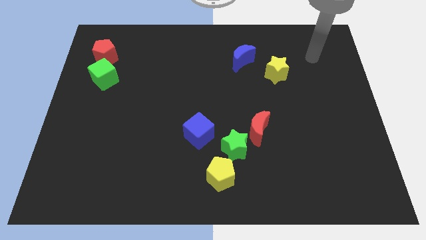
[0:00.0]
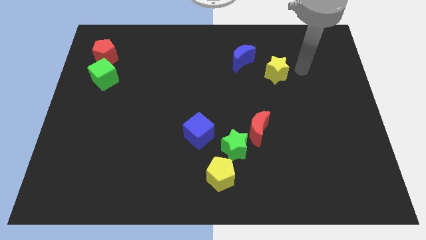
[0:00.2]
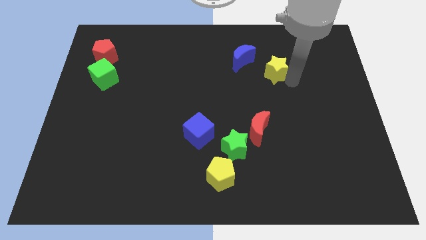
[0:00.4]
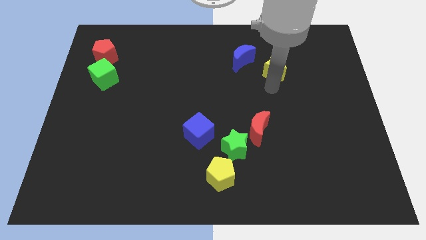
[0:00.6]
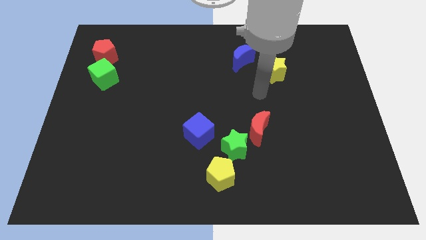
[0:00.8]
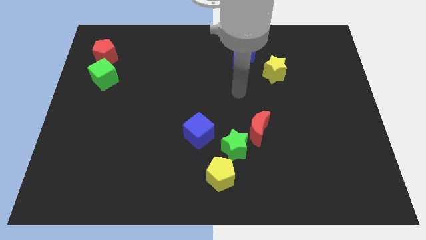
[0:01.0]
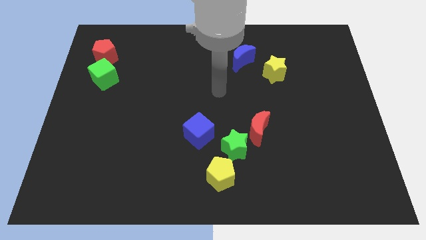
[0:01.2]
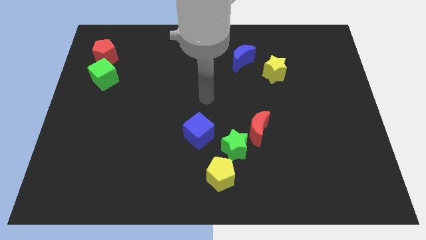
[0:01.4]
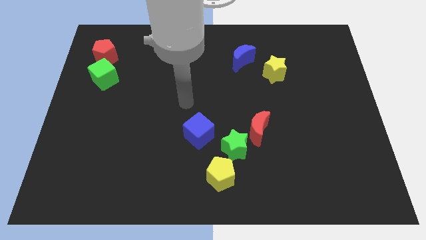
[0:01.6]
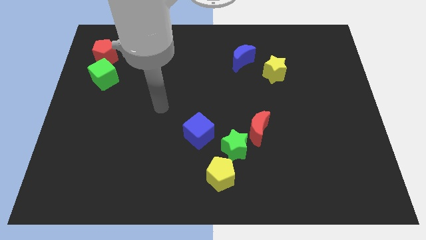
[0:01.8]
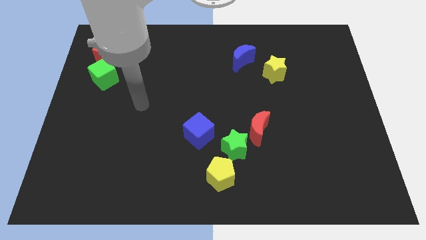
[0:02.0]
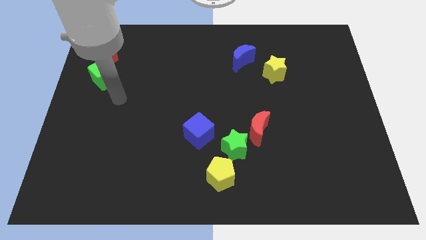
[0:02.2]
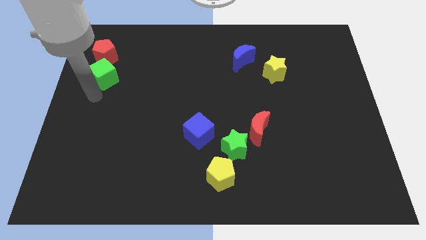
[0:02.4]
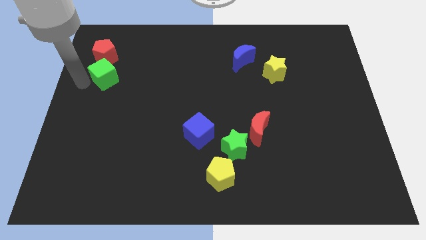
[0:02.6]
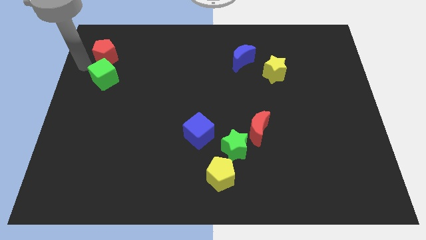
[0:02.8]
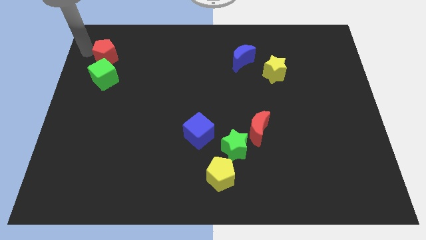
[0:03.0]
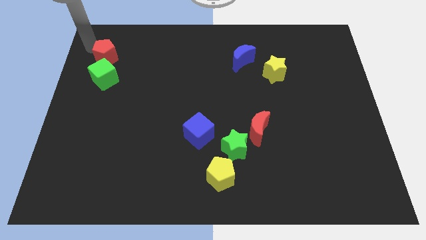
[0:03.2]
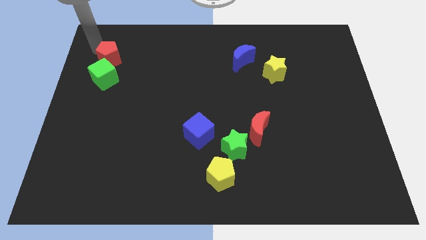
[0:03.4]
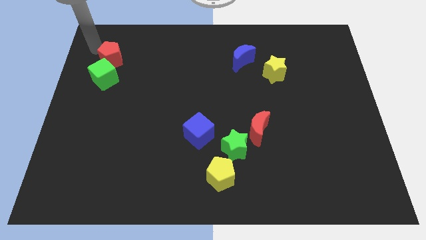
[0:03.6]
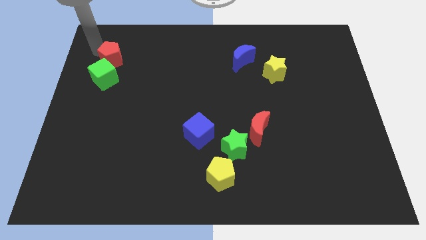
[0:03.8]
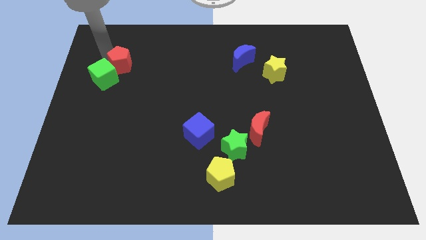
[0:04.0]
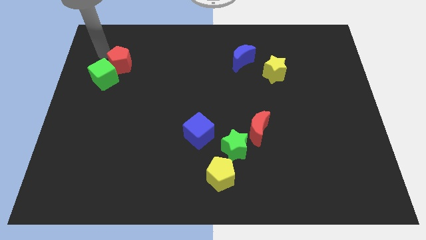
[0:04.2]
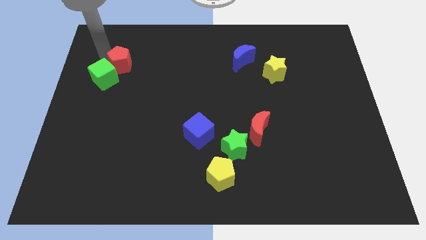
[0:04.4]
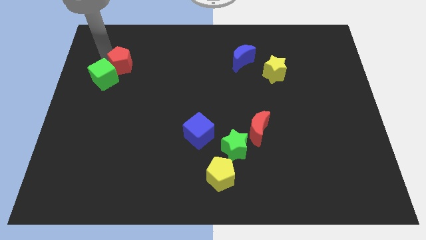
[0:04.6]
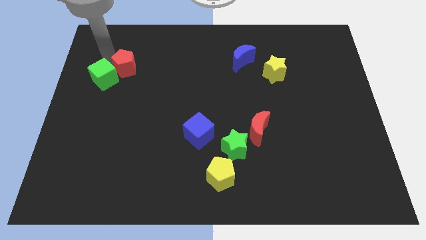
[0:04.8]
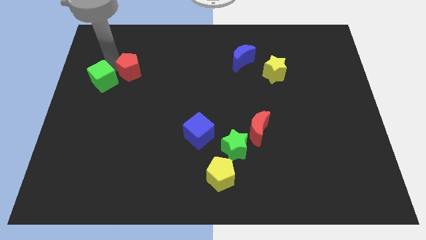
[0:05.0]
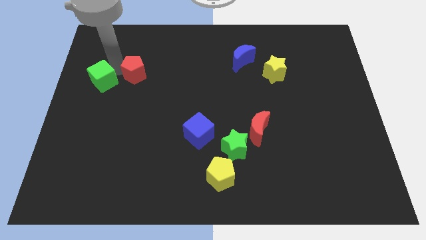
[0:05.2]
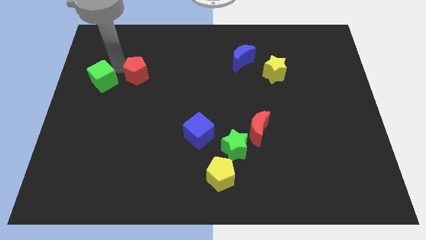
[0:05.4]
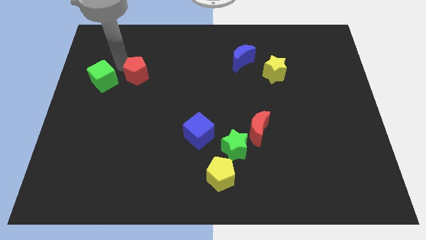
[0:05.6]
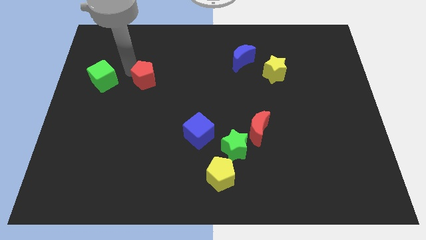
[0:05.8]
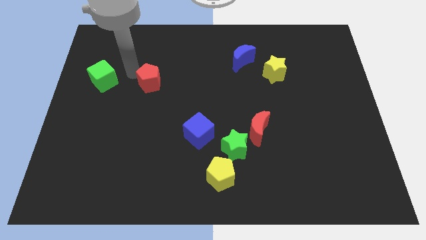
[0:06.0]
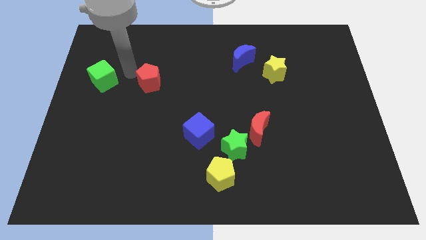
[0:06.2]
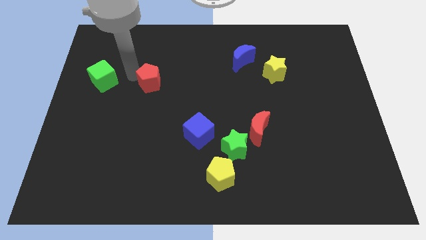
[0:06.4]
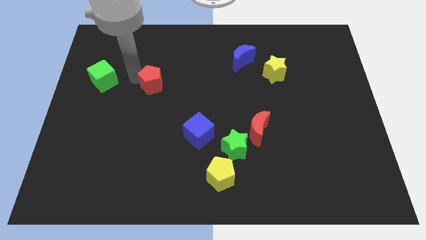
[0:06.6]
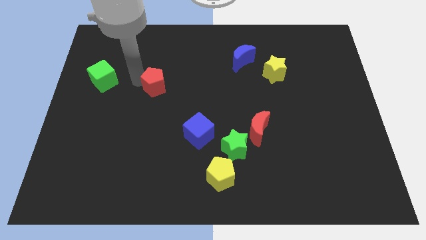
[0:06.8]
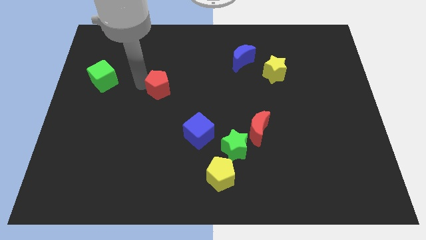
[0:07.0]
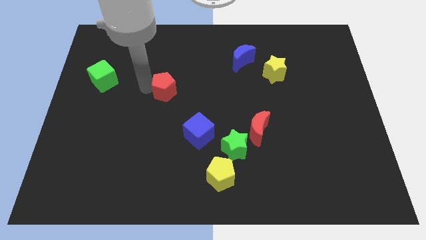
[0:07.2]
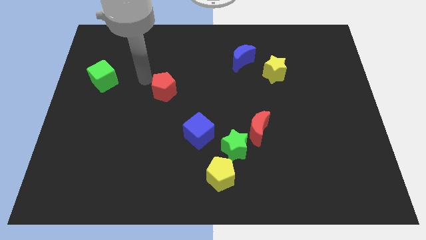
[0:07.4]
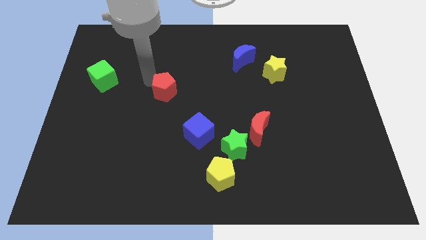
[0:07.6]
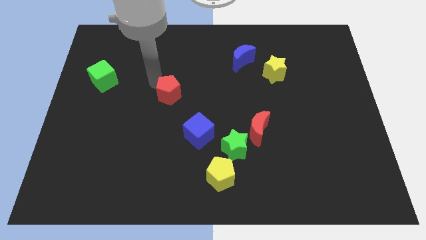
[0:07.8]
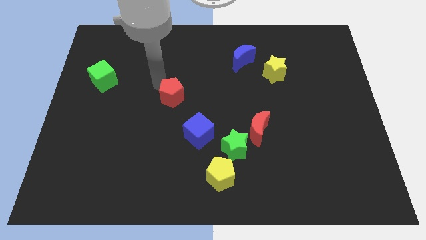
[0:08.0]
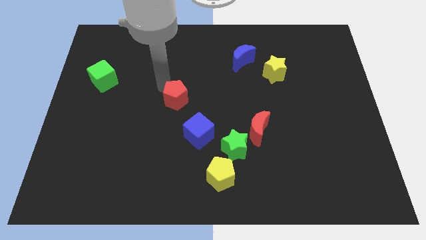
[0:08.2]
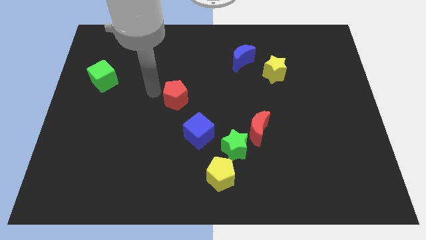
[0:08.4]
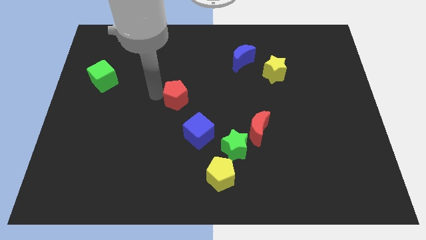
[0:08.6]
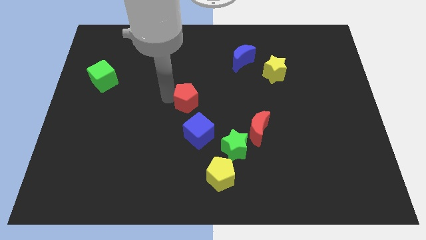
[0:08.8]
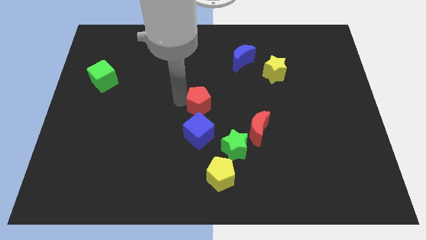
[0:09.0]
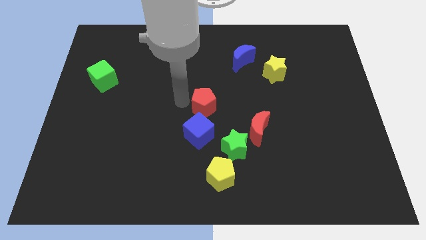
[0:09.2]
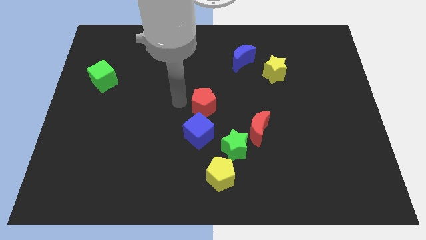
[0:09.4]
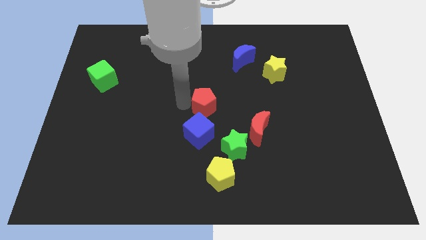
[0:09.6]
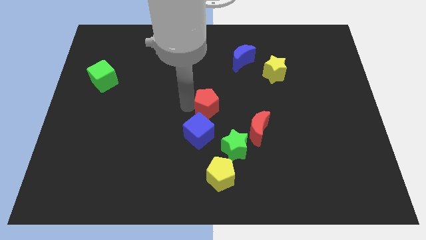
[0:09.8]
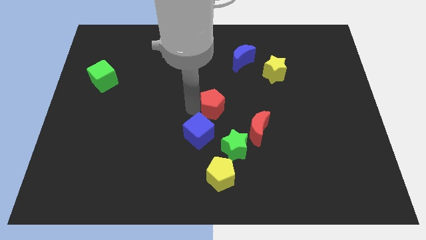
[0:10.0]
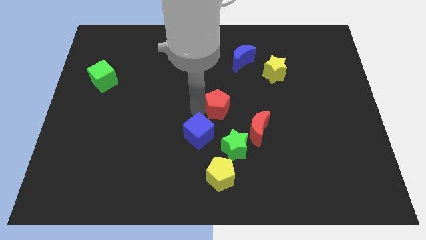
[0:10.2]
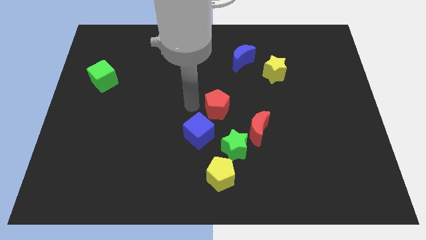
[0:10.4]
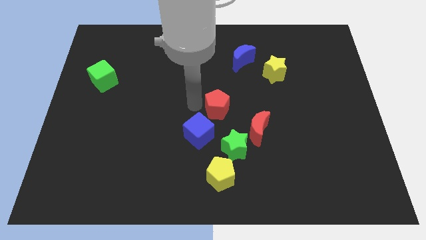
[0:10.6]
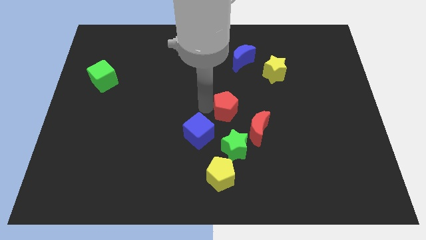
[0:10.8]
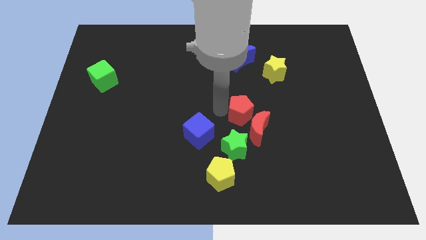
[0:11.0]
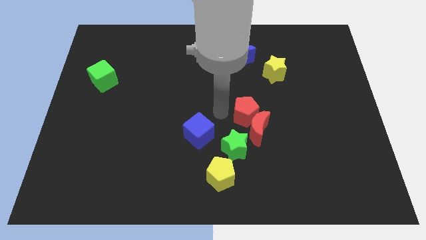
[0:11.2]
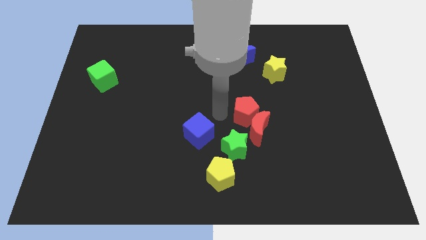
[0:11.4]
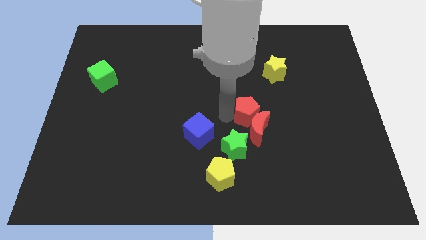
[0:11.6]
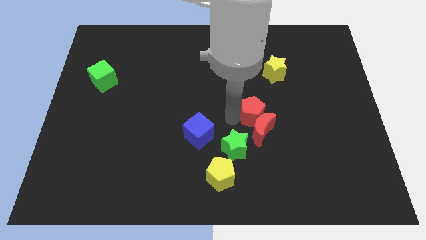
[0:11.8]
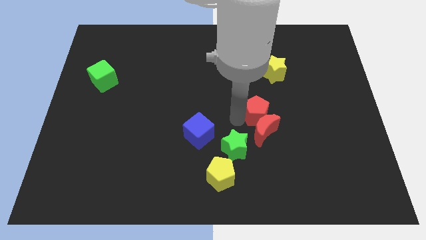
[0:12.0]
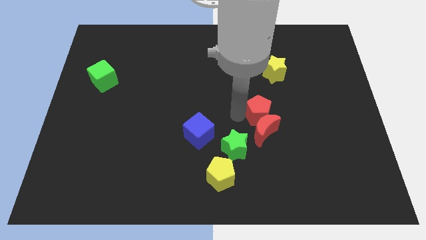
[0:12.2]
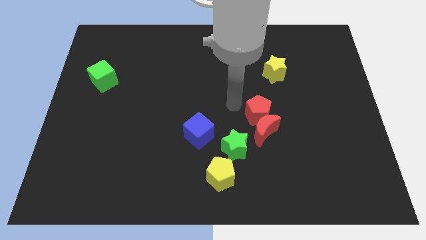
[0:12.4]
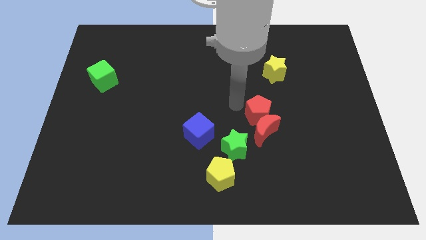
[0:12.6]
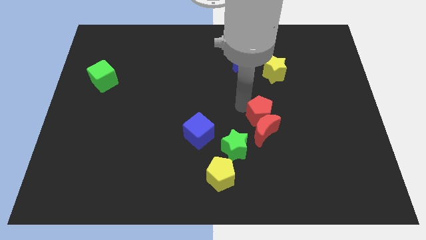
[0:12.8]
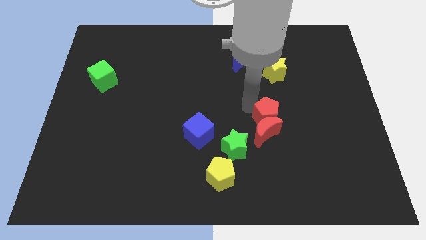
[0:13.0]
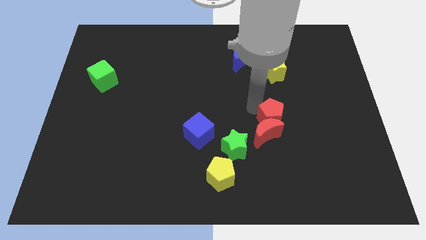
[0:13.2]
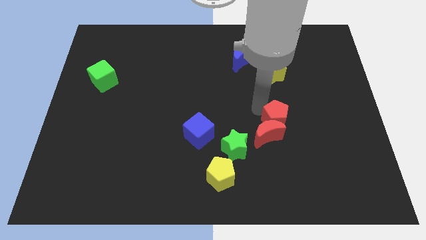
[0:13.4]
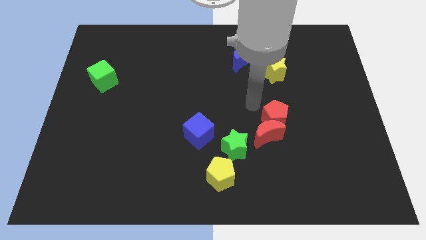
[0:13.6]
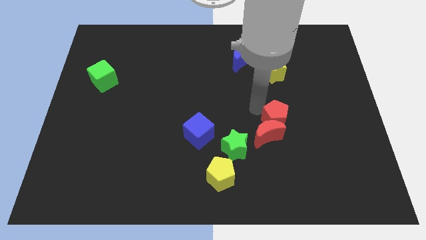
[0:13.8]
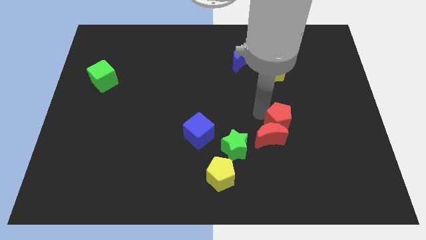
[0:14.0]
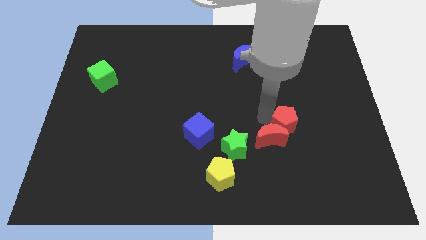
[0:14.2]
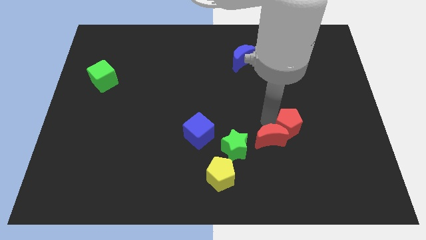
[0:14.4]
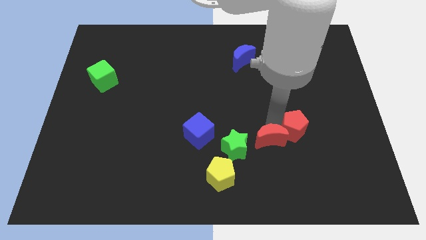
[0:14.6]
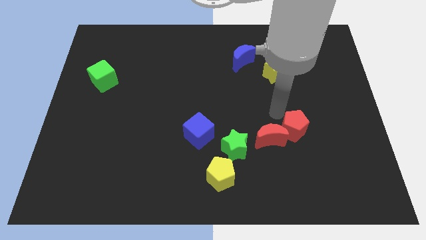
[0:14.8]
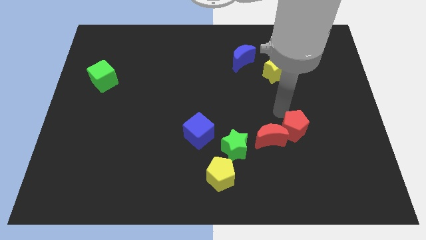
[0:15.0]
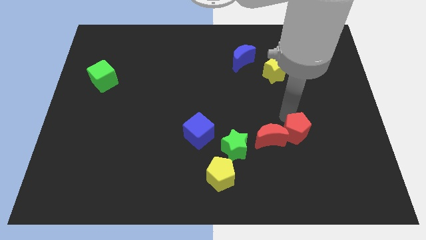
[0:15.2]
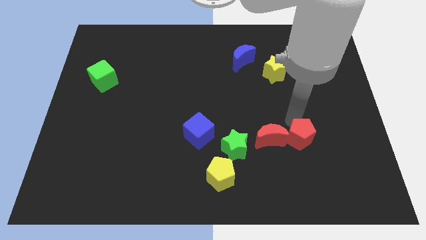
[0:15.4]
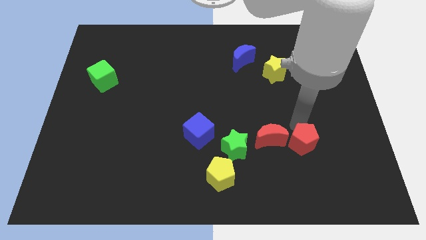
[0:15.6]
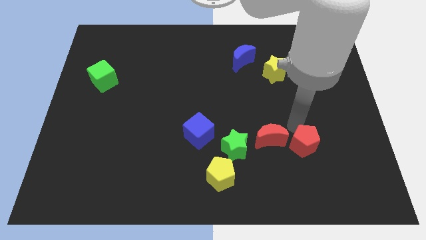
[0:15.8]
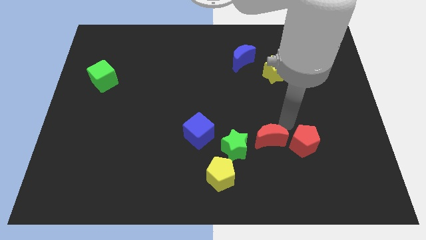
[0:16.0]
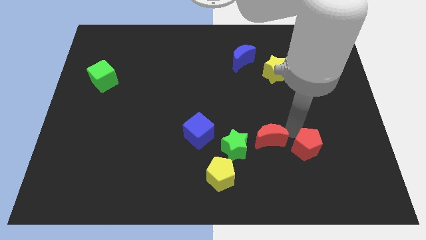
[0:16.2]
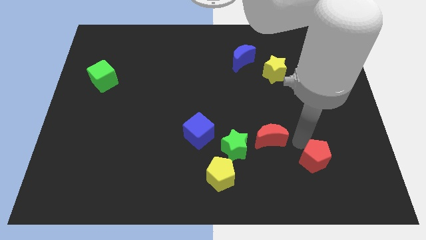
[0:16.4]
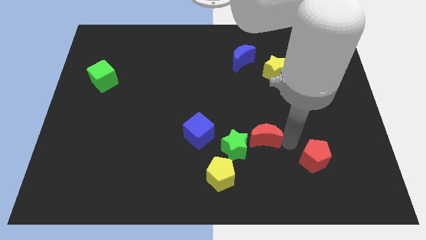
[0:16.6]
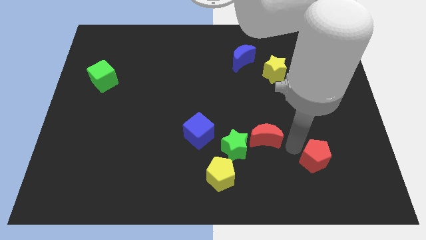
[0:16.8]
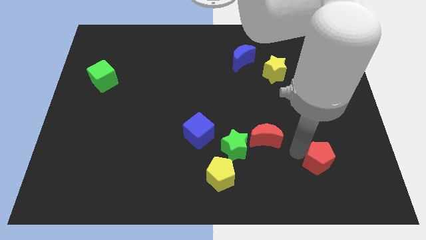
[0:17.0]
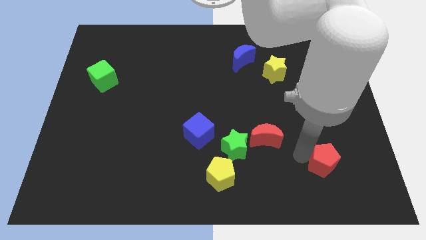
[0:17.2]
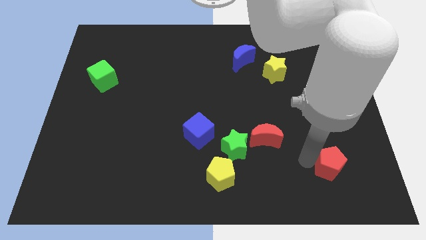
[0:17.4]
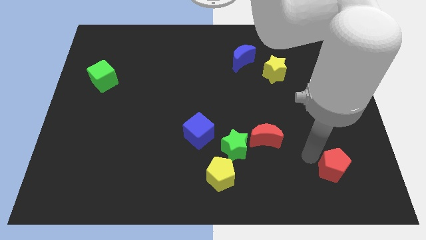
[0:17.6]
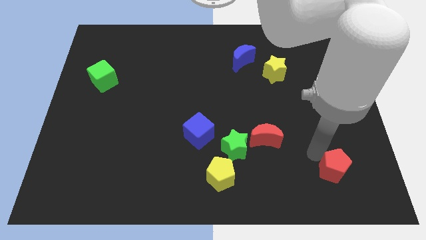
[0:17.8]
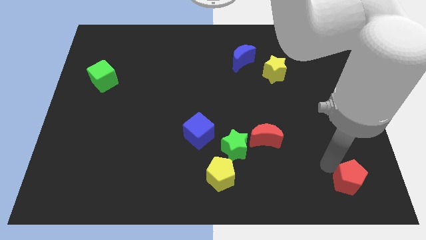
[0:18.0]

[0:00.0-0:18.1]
slide the red pentagon to the bottom right of the board
